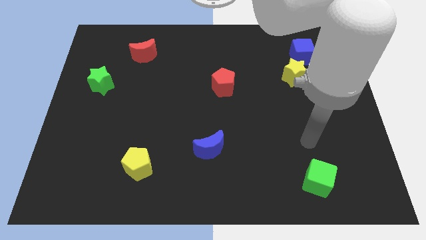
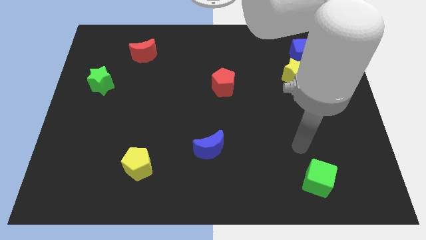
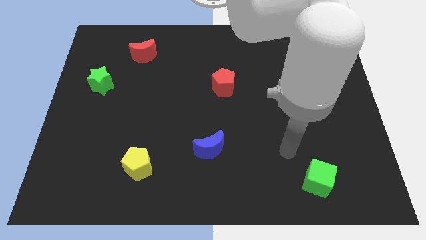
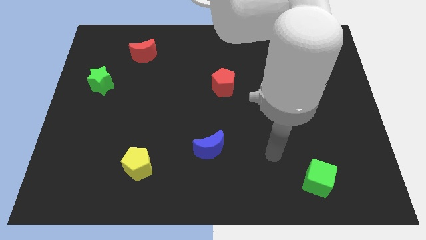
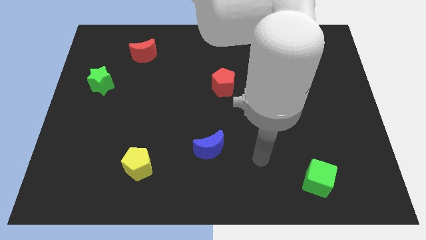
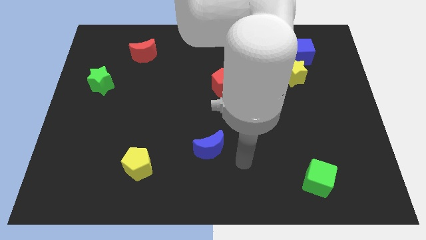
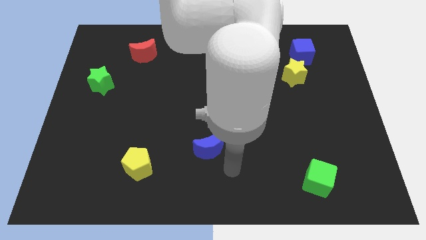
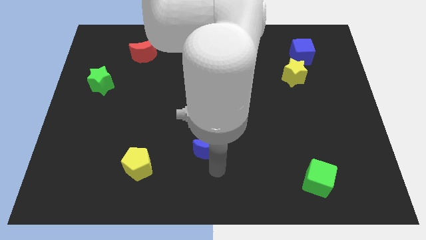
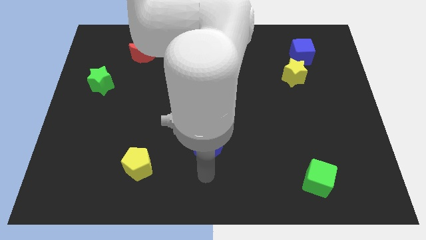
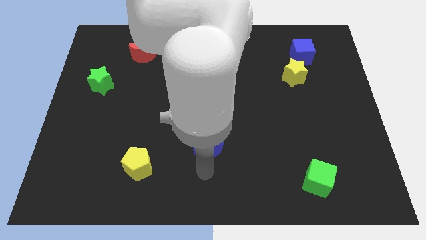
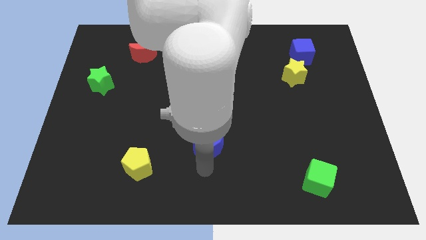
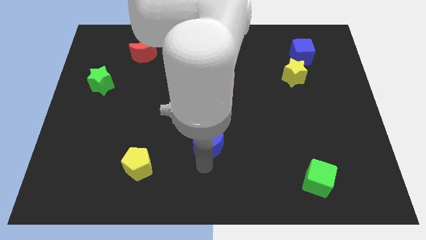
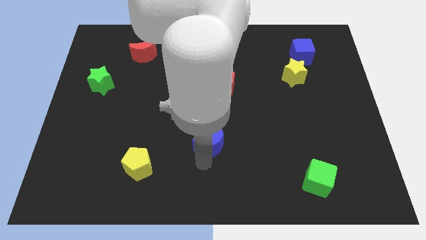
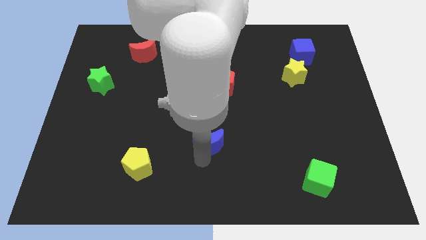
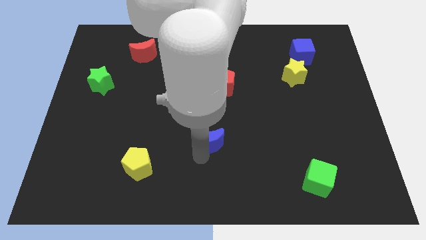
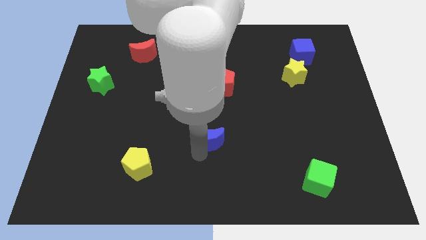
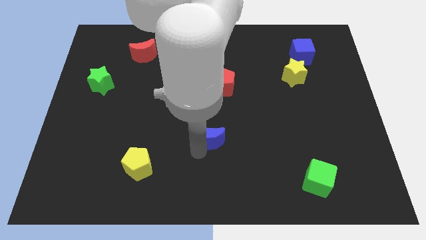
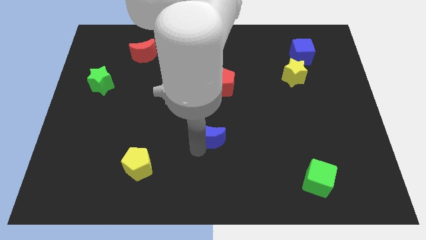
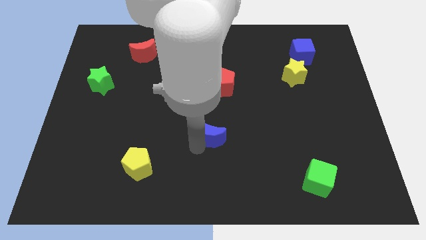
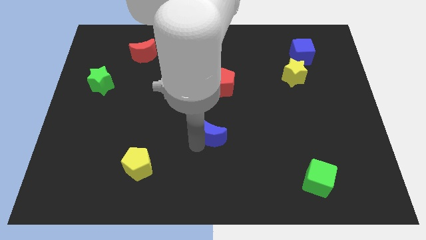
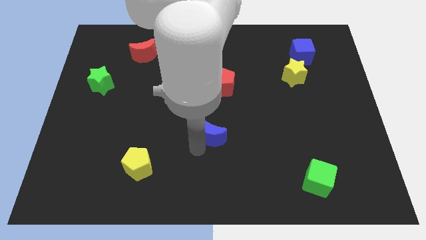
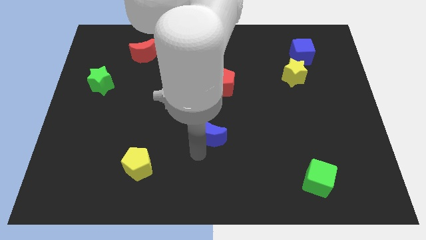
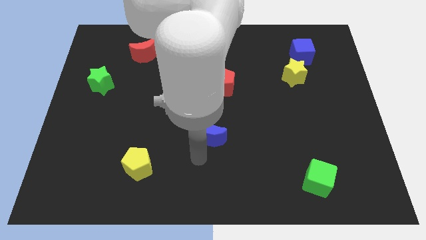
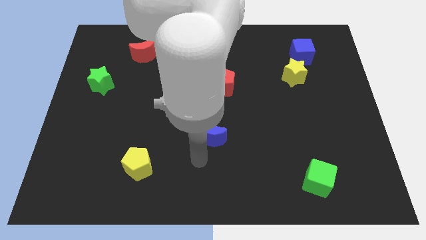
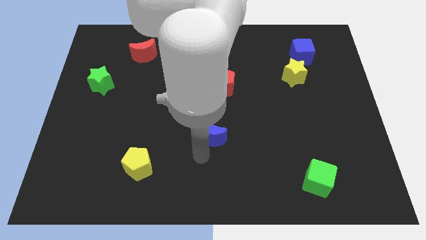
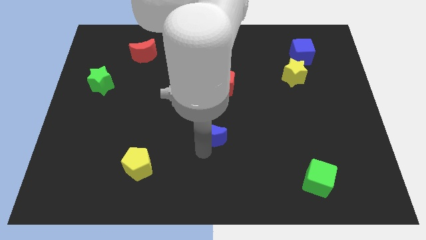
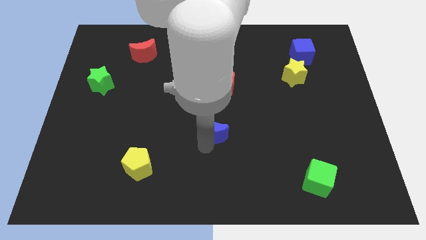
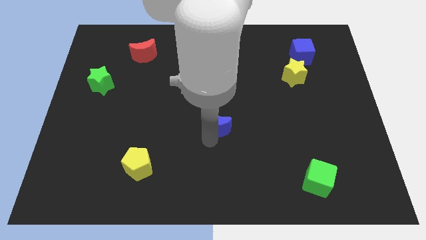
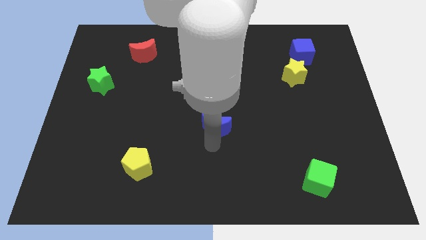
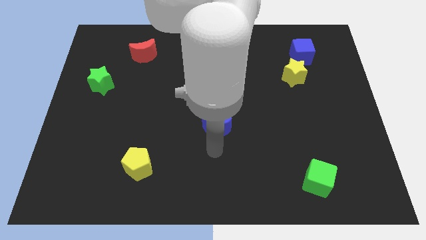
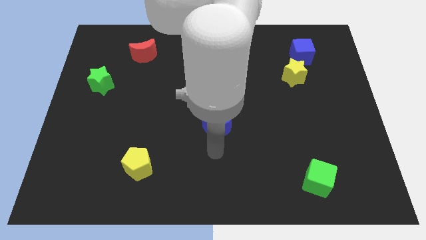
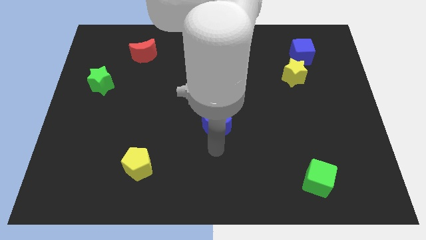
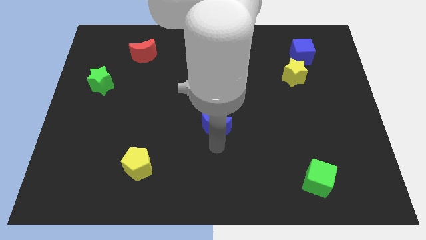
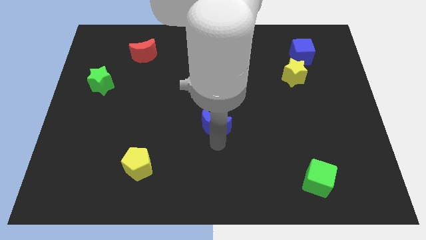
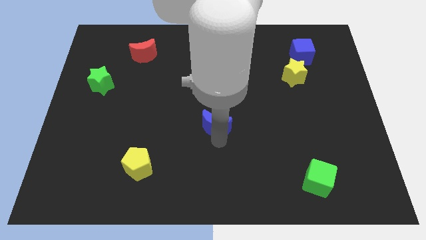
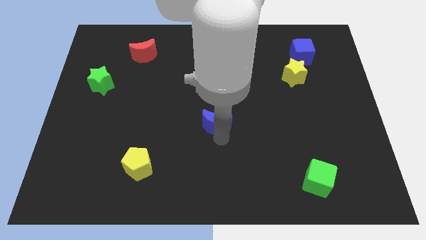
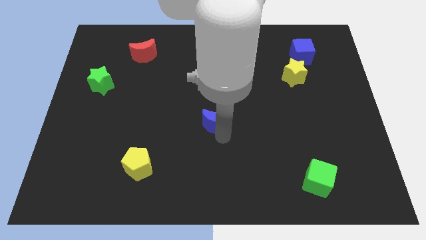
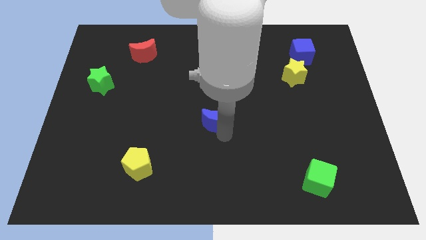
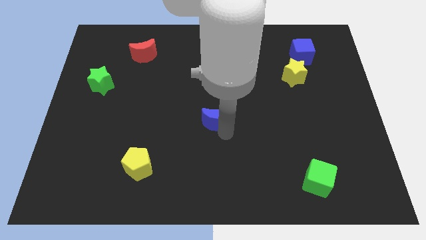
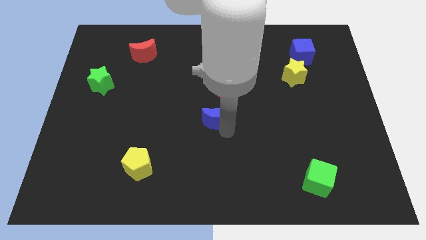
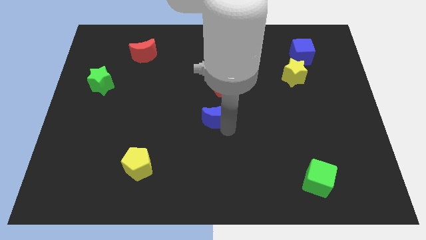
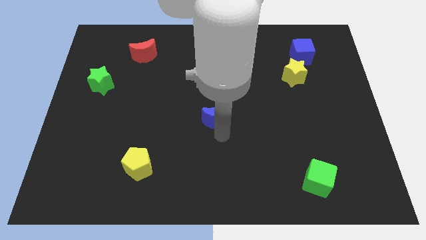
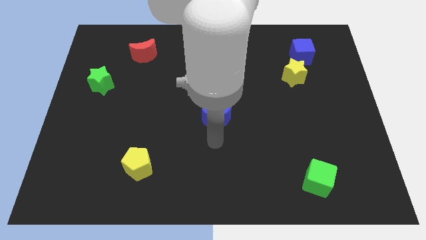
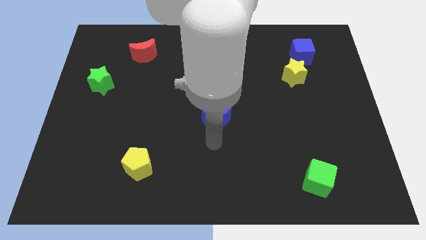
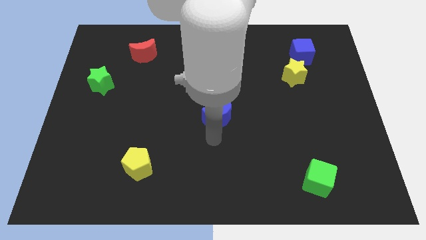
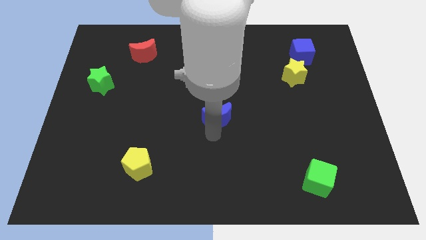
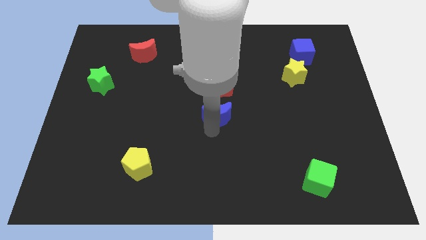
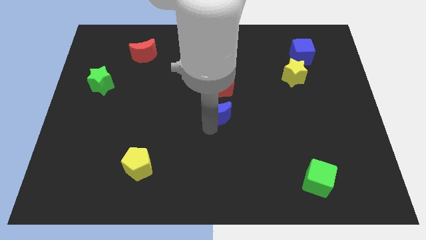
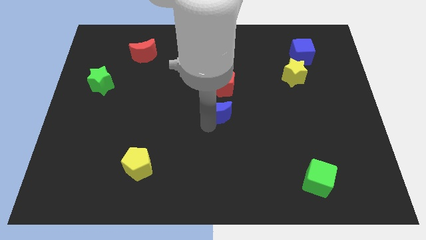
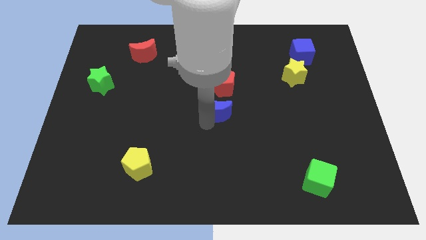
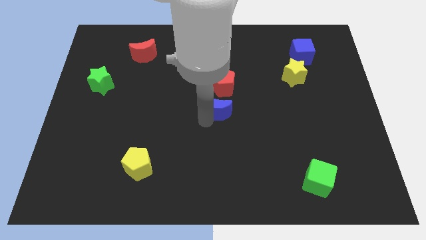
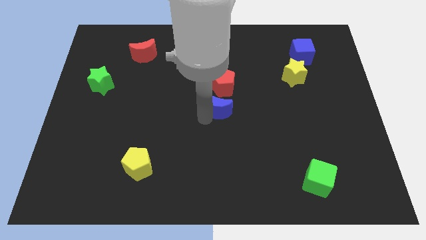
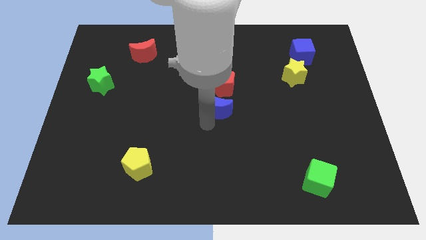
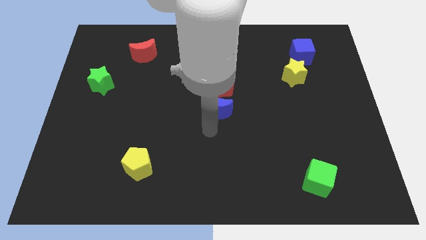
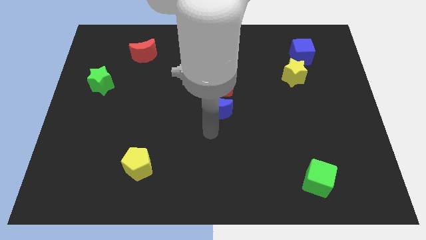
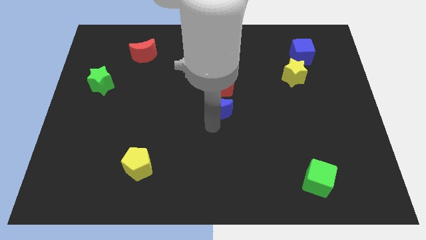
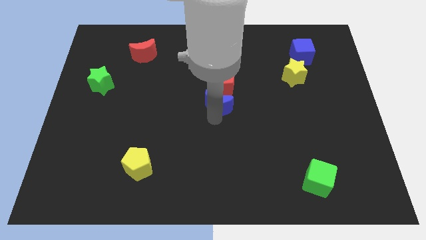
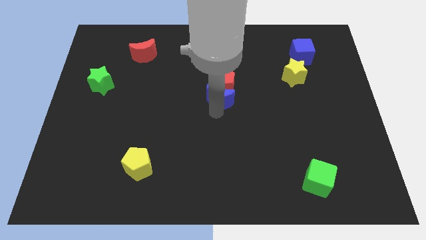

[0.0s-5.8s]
put the blue moon to the red pentagon

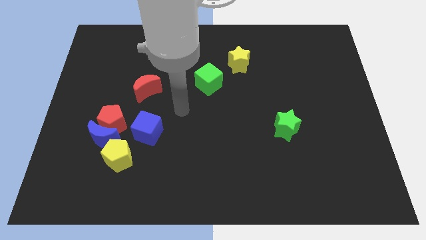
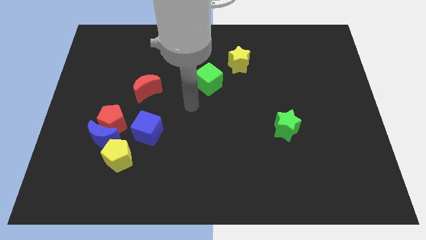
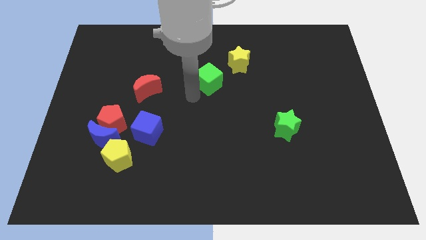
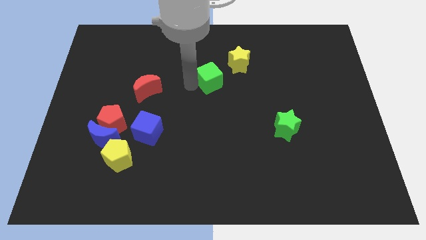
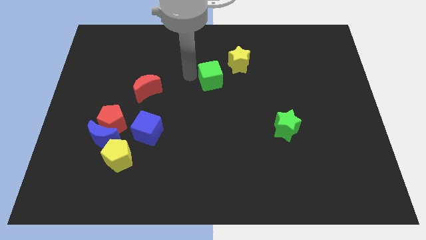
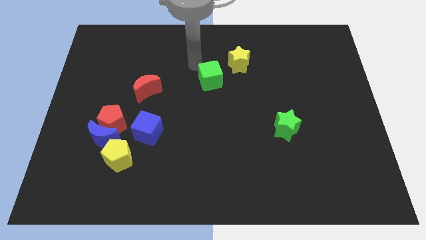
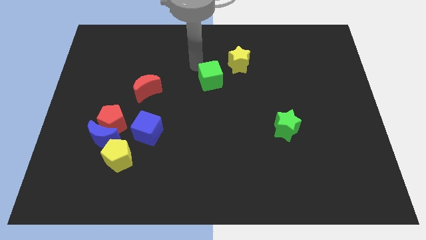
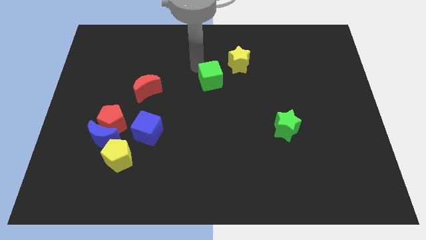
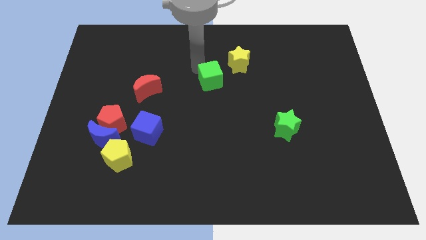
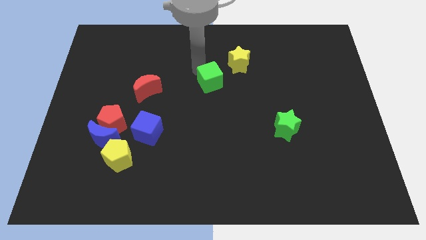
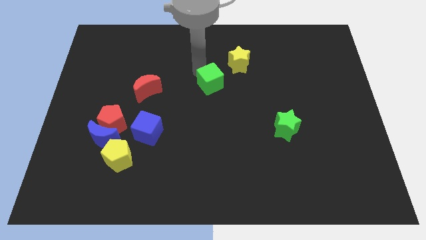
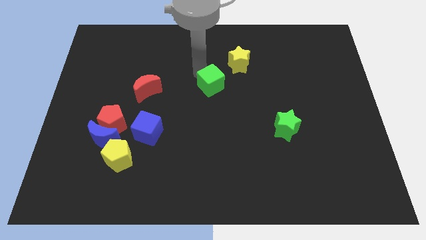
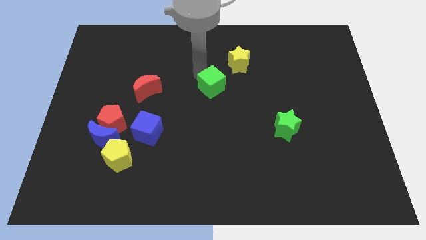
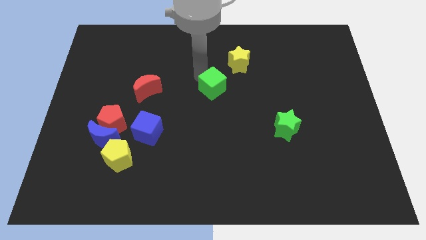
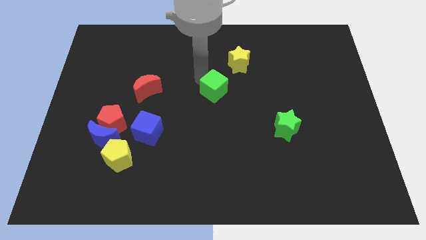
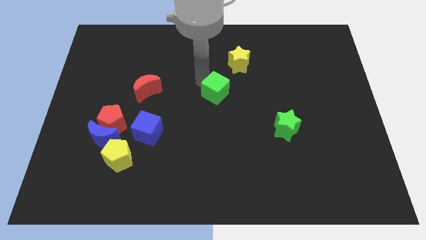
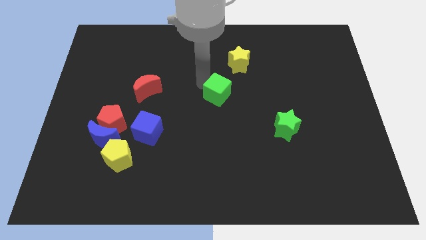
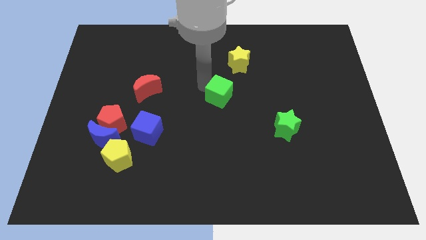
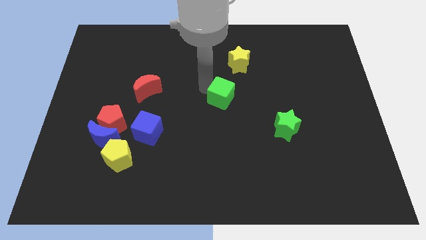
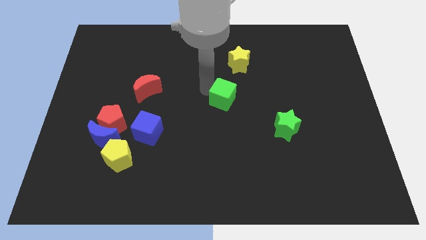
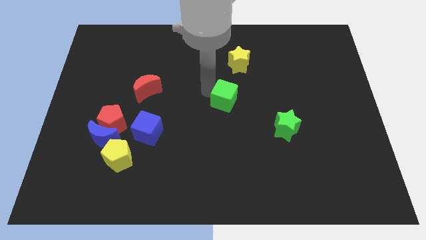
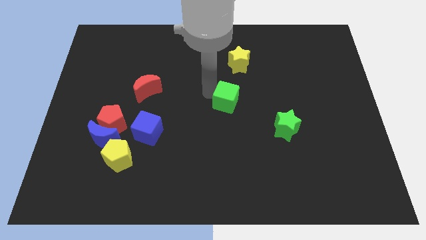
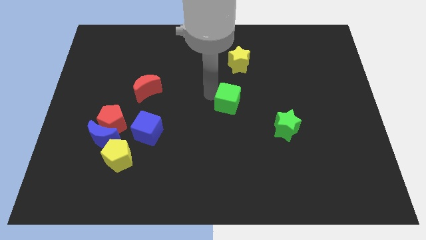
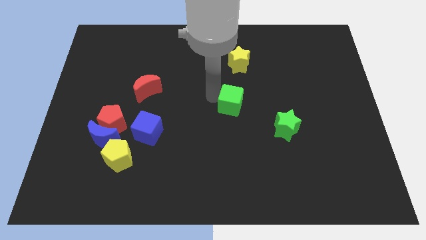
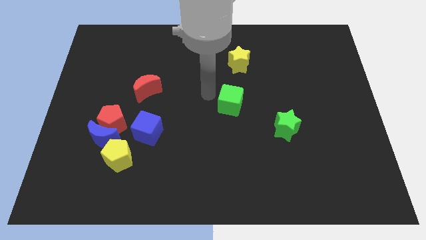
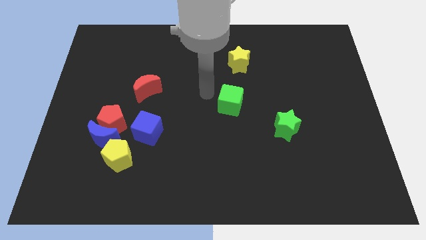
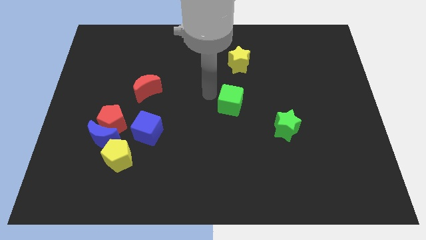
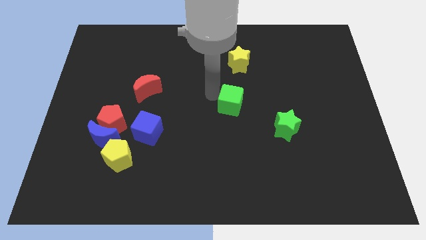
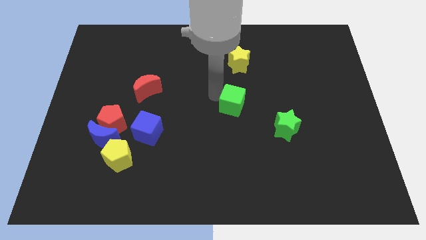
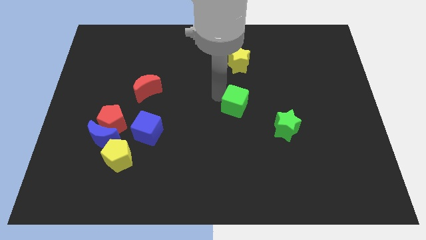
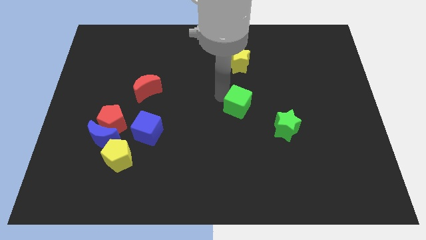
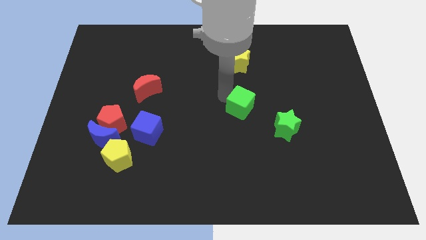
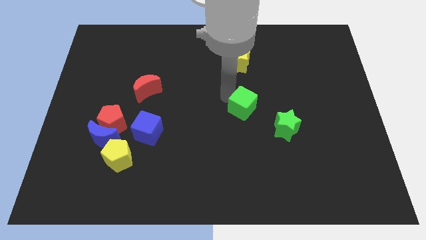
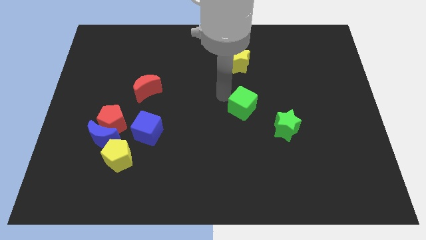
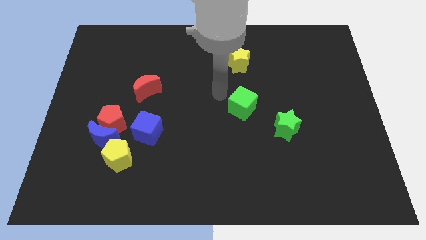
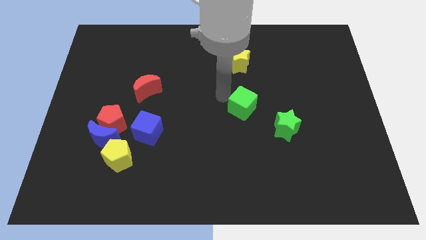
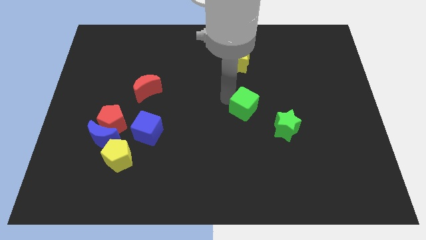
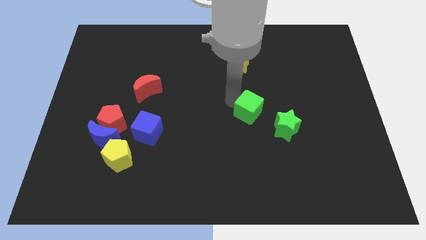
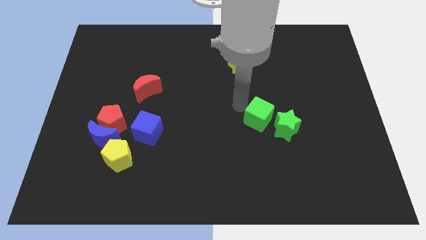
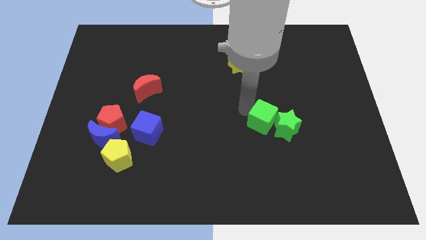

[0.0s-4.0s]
slide the green cube towards the green star
